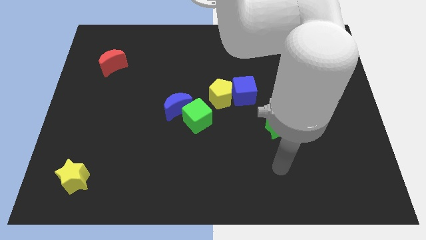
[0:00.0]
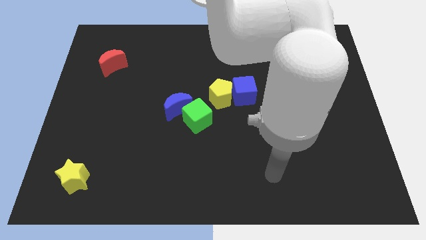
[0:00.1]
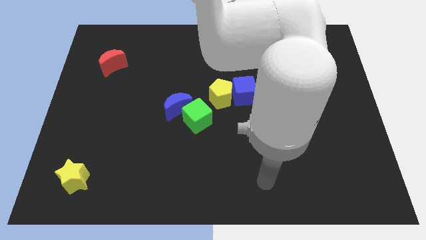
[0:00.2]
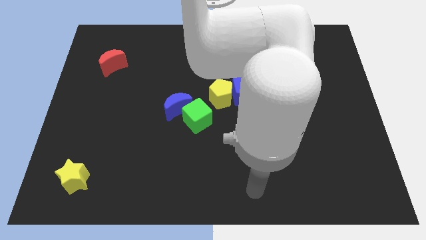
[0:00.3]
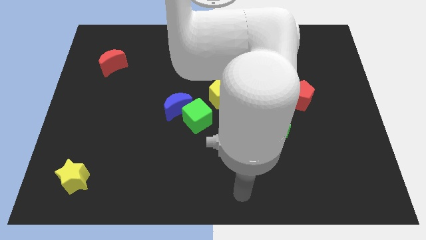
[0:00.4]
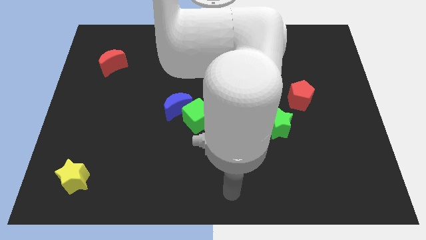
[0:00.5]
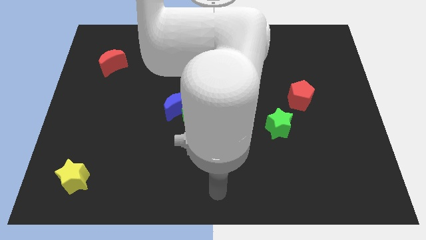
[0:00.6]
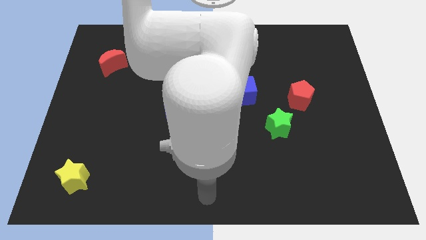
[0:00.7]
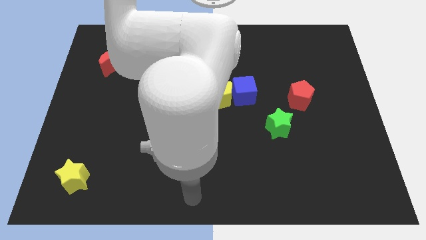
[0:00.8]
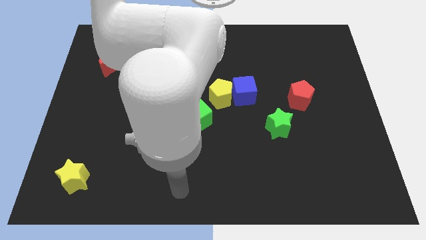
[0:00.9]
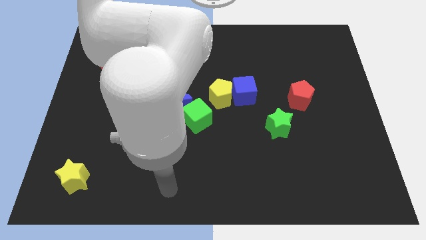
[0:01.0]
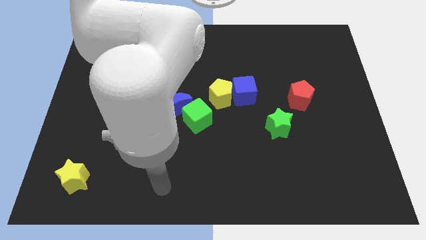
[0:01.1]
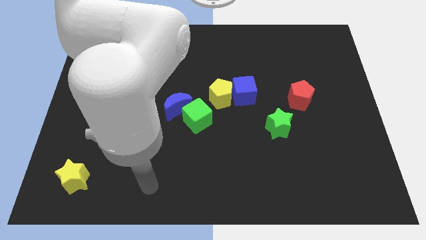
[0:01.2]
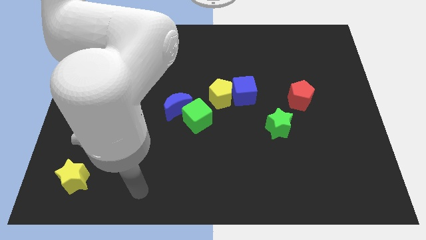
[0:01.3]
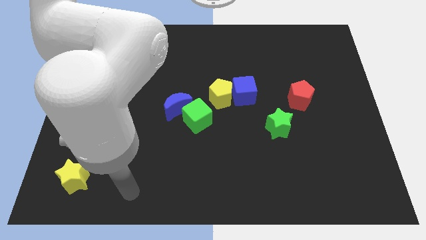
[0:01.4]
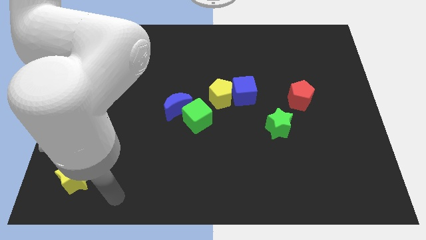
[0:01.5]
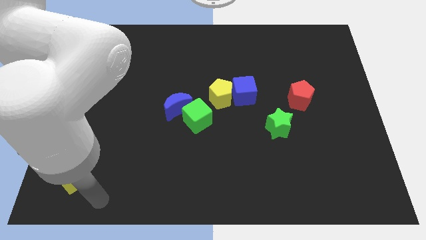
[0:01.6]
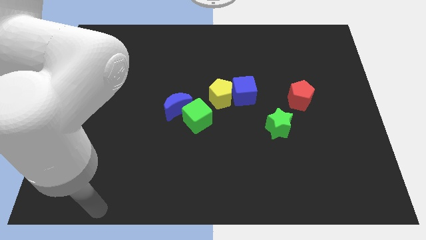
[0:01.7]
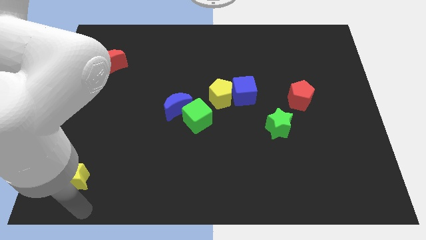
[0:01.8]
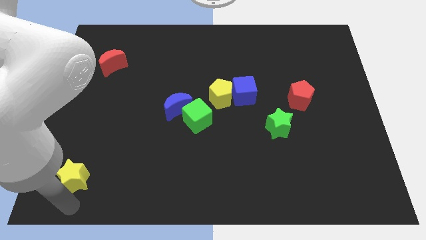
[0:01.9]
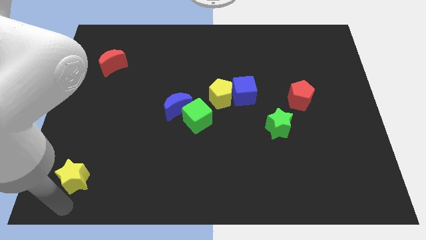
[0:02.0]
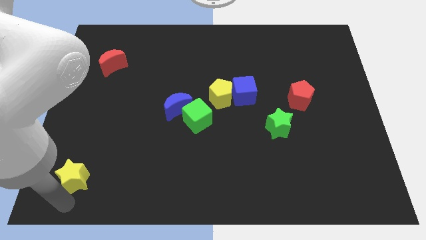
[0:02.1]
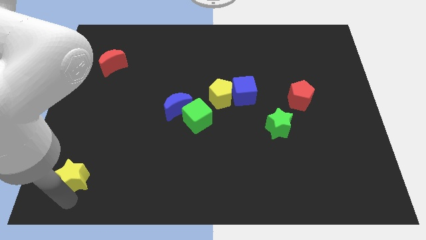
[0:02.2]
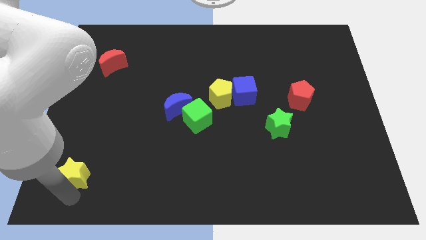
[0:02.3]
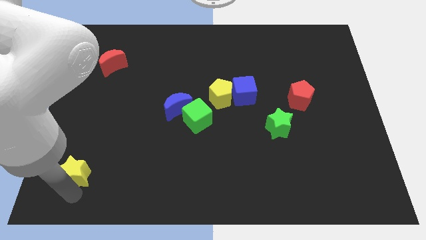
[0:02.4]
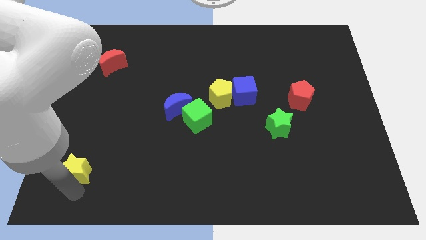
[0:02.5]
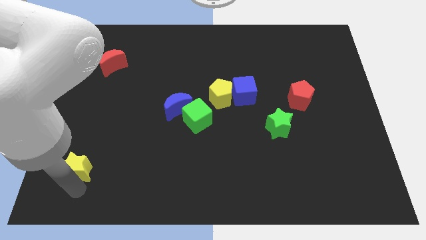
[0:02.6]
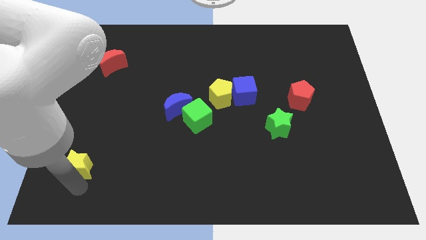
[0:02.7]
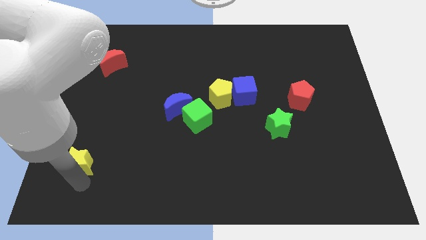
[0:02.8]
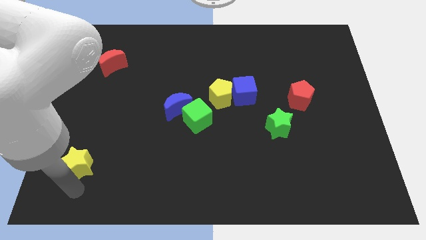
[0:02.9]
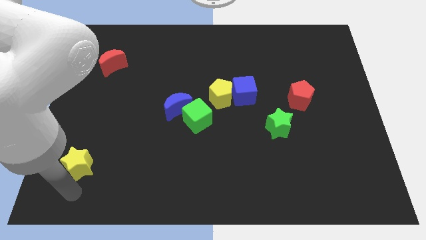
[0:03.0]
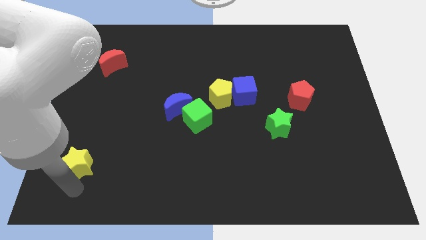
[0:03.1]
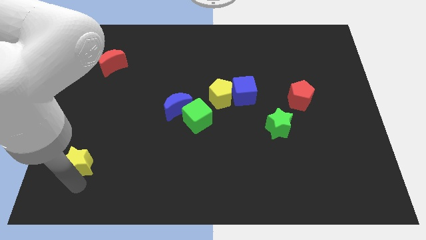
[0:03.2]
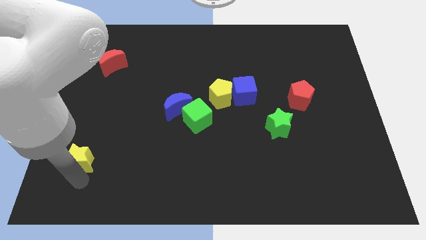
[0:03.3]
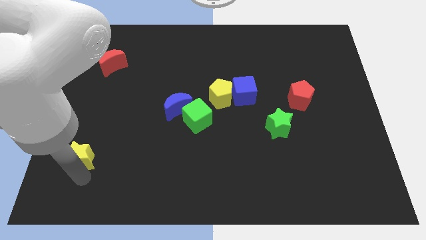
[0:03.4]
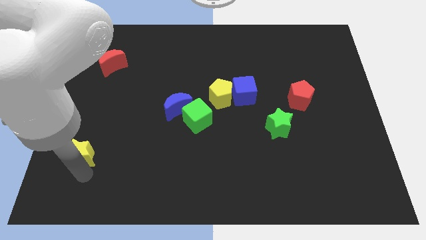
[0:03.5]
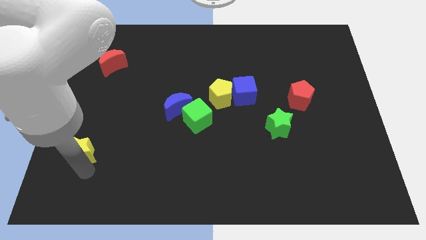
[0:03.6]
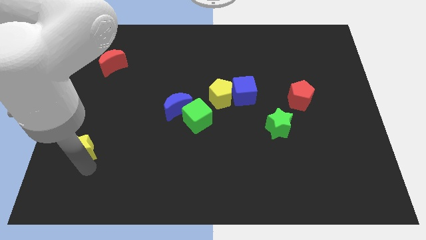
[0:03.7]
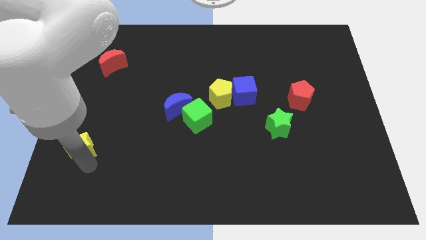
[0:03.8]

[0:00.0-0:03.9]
push the yellow star a little upwards

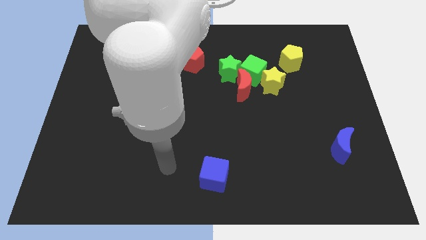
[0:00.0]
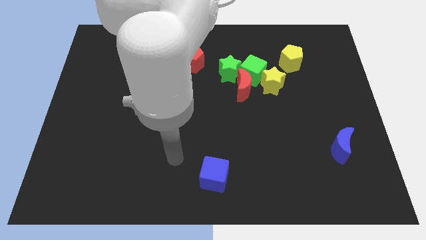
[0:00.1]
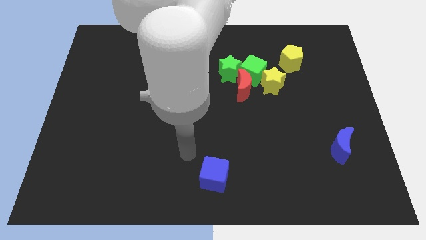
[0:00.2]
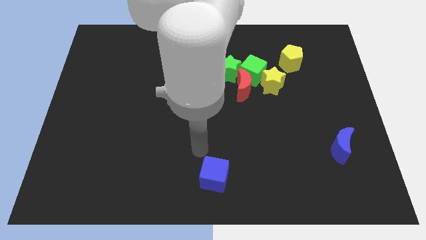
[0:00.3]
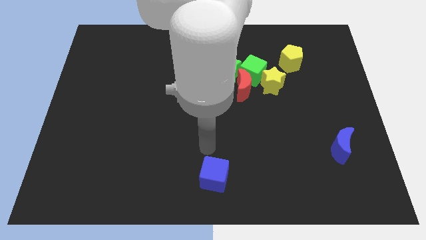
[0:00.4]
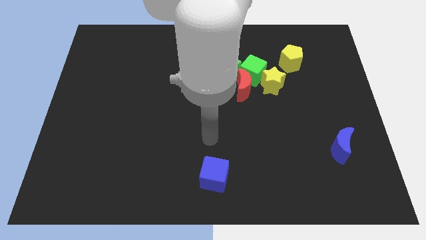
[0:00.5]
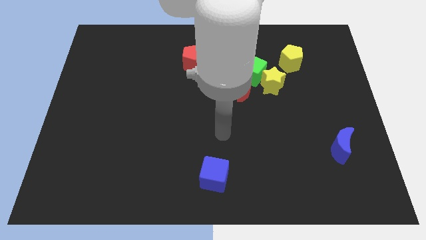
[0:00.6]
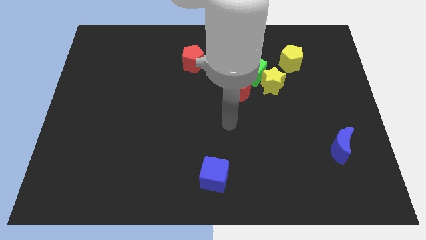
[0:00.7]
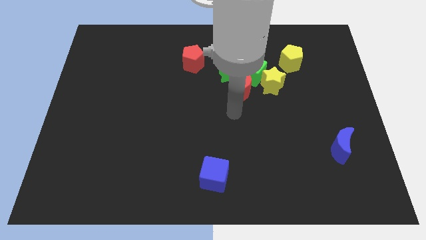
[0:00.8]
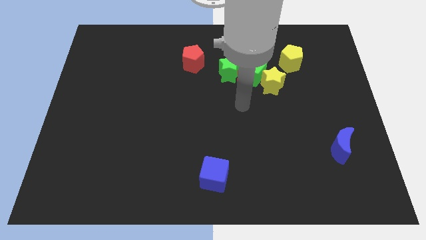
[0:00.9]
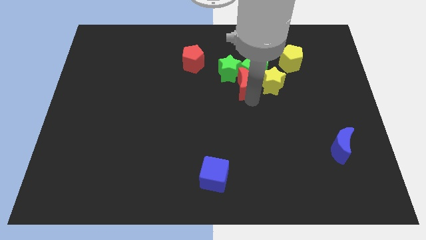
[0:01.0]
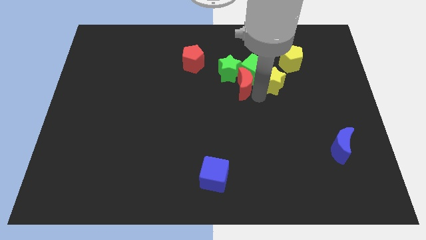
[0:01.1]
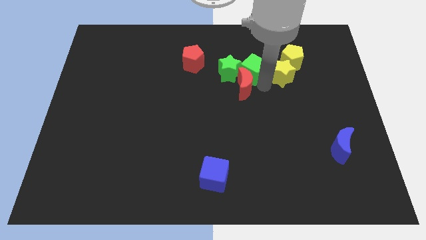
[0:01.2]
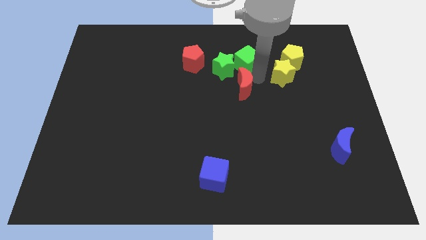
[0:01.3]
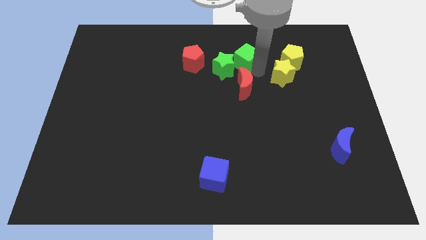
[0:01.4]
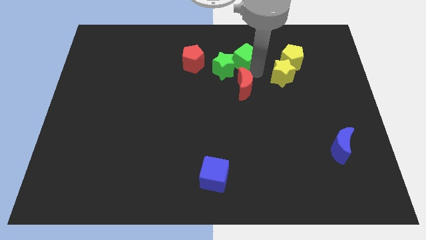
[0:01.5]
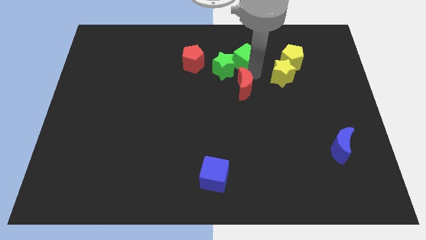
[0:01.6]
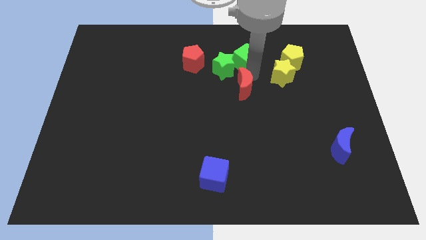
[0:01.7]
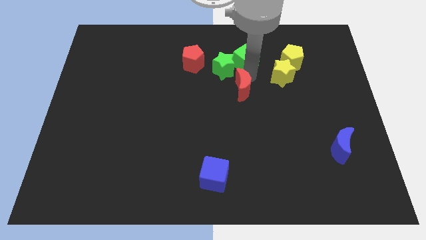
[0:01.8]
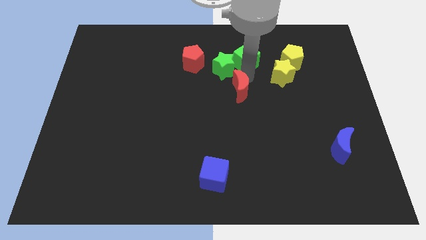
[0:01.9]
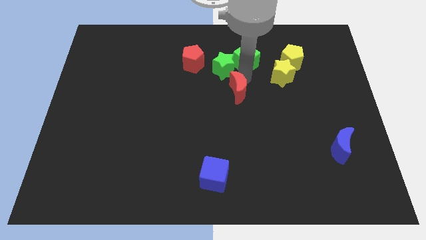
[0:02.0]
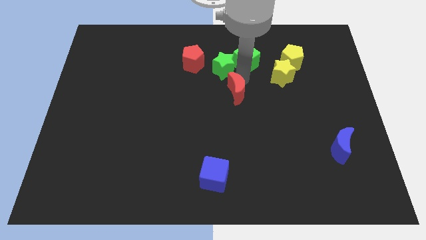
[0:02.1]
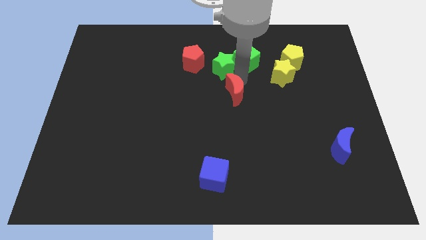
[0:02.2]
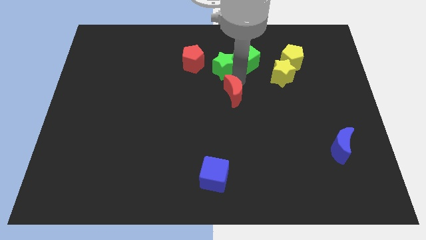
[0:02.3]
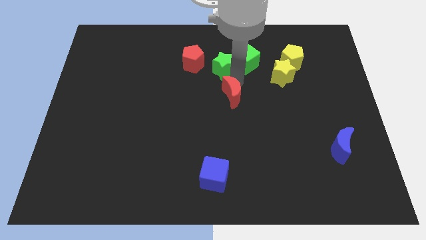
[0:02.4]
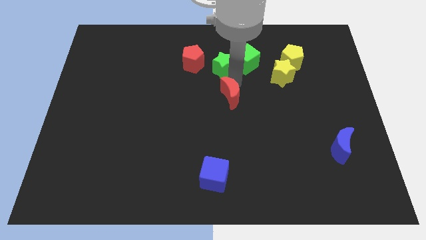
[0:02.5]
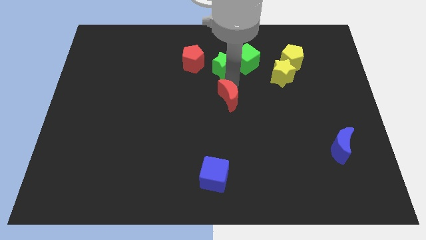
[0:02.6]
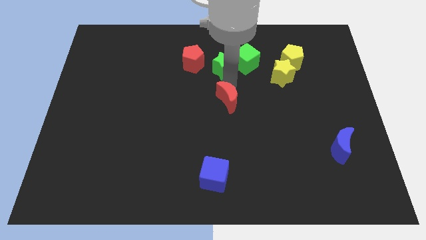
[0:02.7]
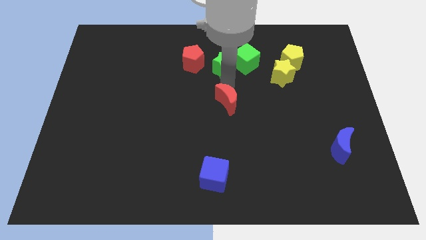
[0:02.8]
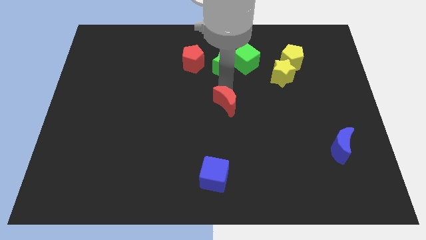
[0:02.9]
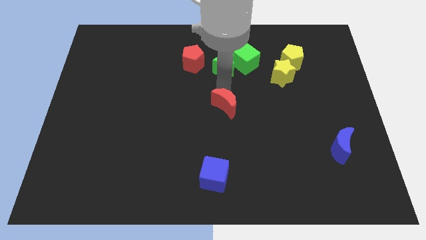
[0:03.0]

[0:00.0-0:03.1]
slightly slide the red moon down and left diagonally

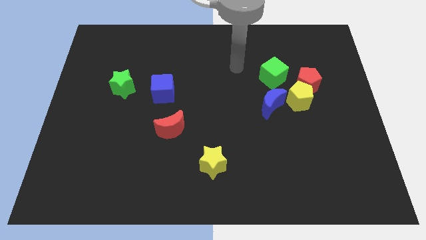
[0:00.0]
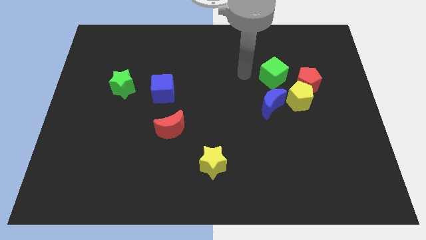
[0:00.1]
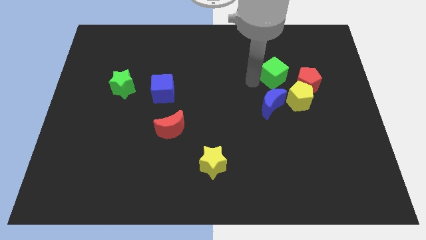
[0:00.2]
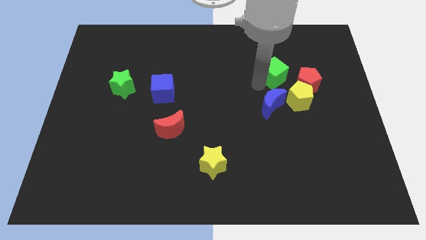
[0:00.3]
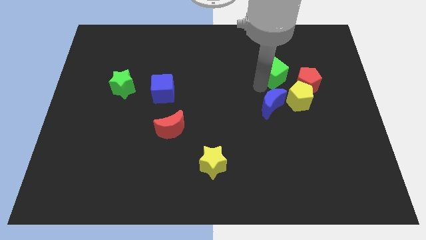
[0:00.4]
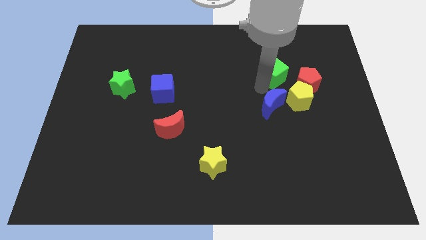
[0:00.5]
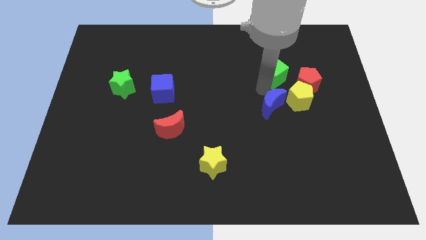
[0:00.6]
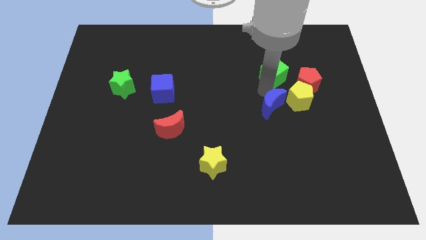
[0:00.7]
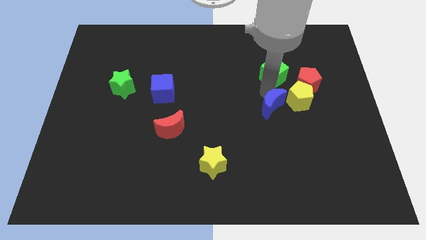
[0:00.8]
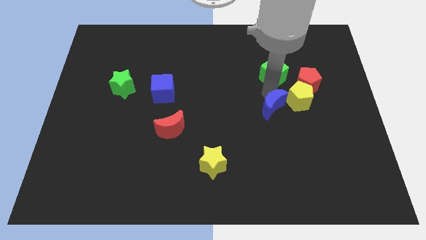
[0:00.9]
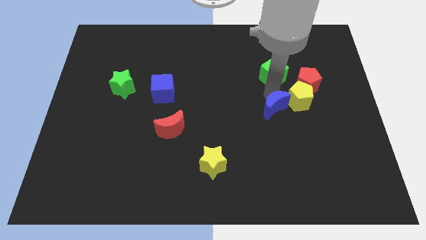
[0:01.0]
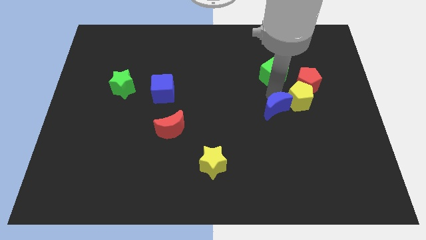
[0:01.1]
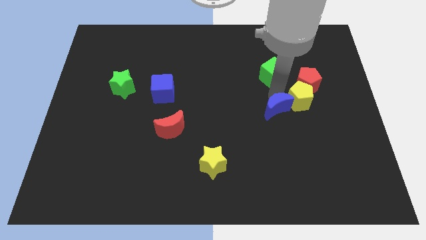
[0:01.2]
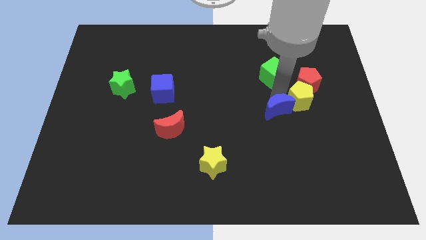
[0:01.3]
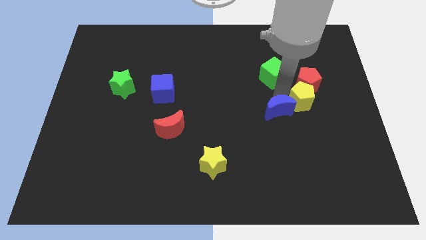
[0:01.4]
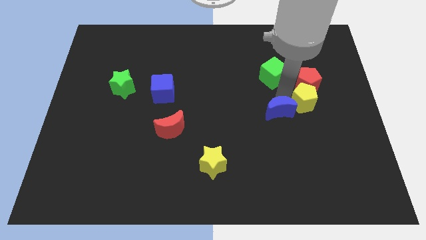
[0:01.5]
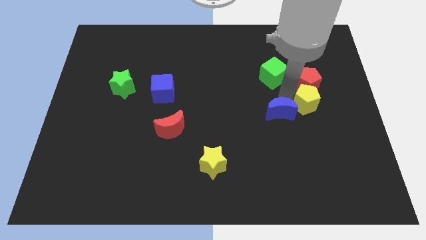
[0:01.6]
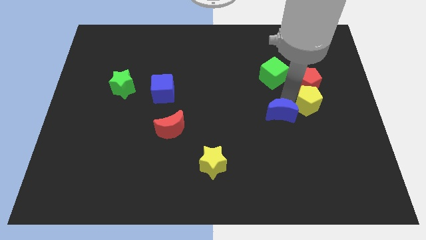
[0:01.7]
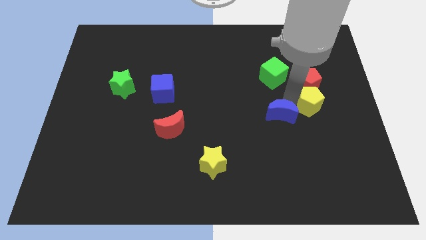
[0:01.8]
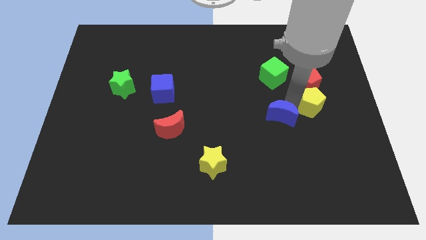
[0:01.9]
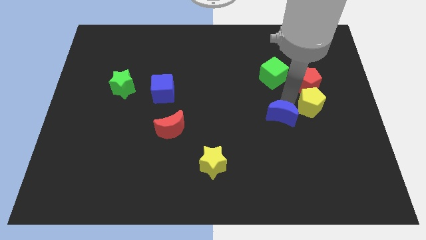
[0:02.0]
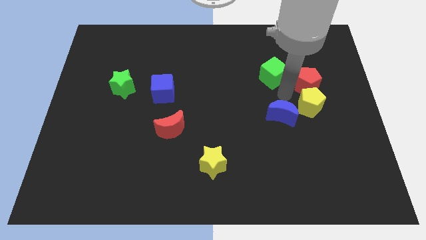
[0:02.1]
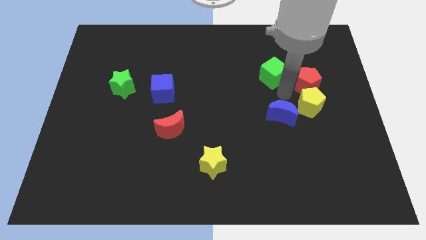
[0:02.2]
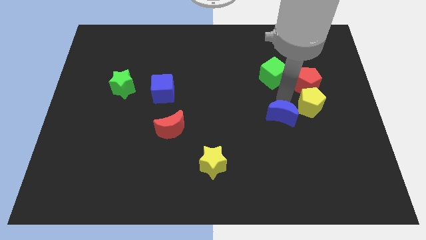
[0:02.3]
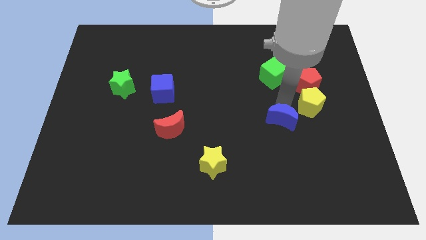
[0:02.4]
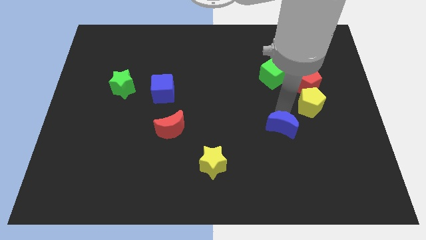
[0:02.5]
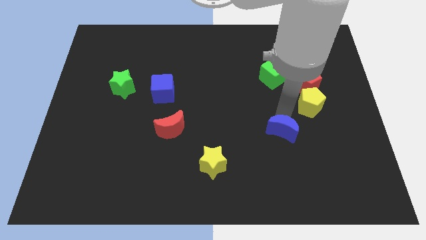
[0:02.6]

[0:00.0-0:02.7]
slightly push the blue moon downwards
